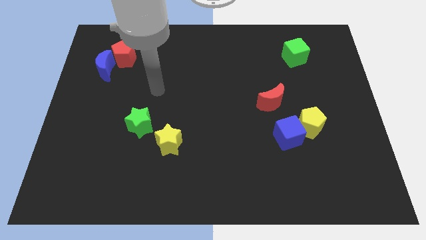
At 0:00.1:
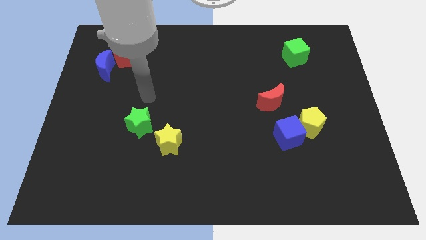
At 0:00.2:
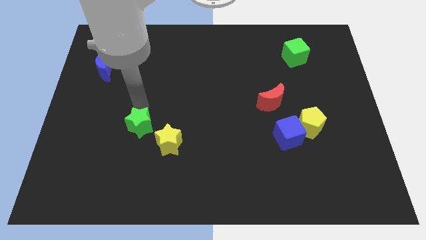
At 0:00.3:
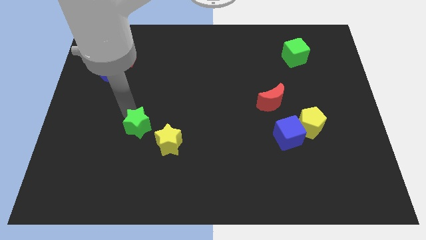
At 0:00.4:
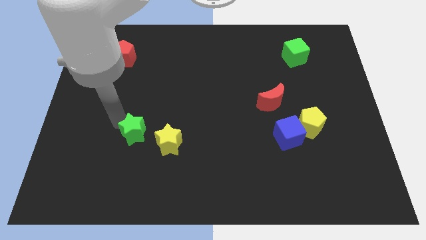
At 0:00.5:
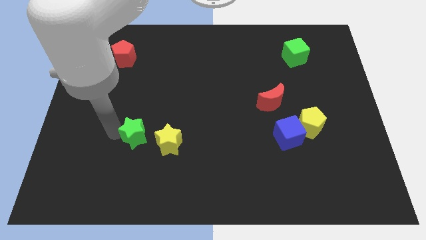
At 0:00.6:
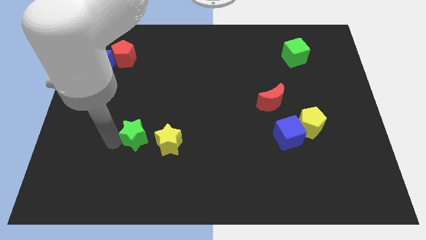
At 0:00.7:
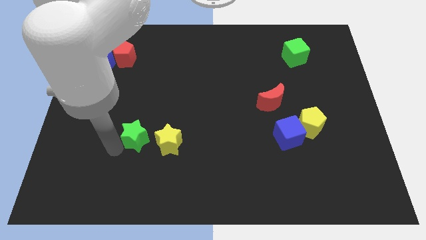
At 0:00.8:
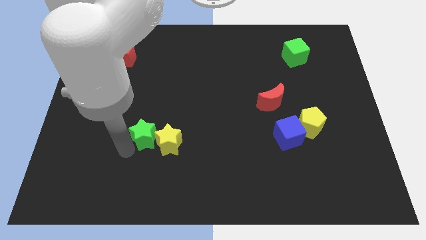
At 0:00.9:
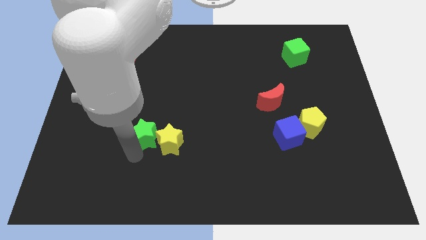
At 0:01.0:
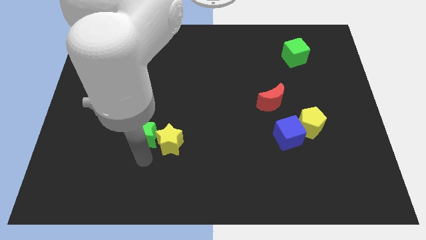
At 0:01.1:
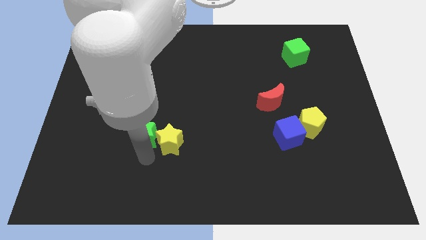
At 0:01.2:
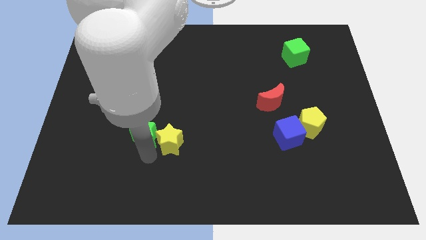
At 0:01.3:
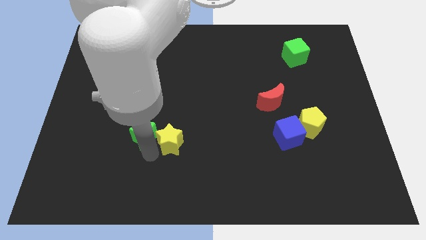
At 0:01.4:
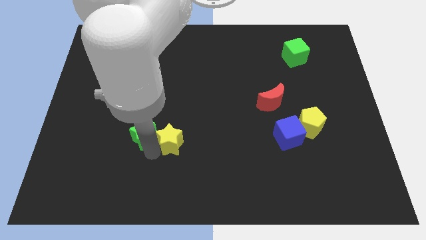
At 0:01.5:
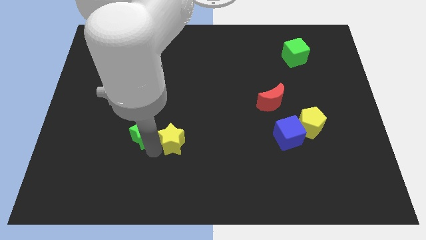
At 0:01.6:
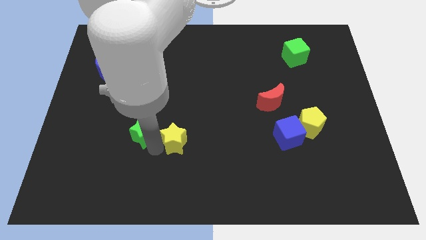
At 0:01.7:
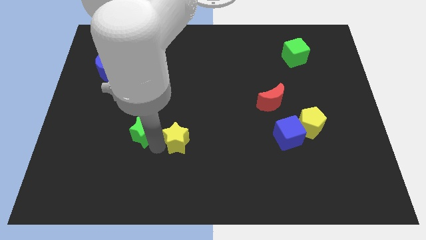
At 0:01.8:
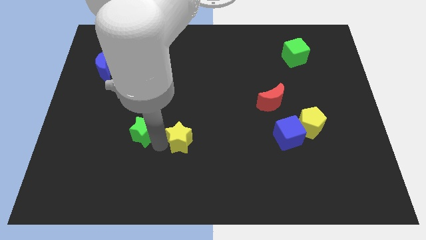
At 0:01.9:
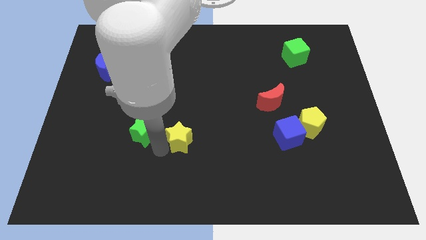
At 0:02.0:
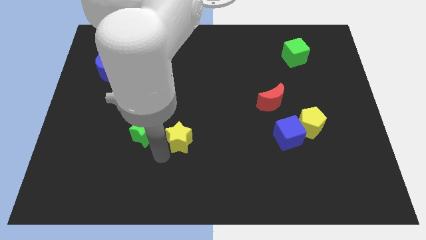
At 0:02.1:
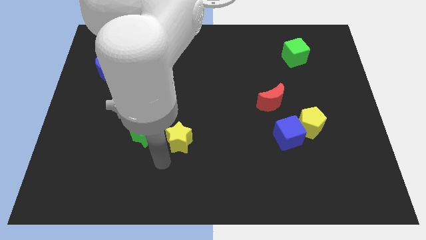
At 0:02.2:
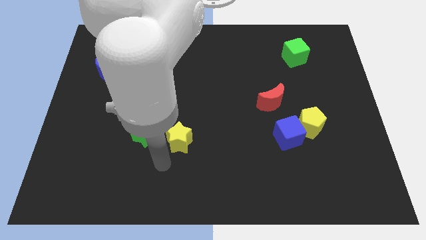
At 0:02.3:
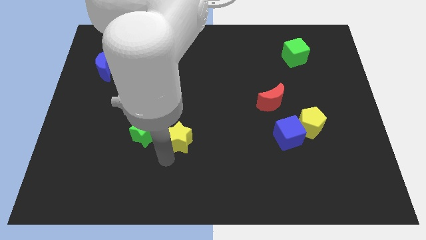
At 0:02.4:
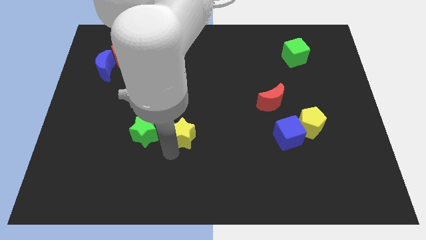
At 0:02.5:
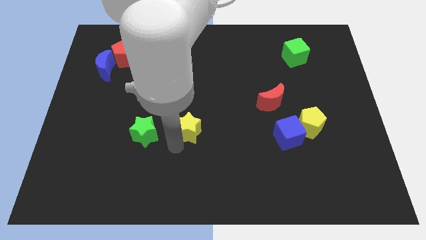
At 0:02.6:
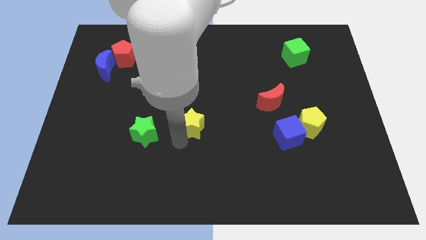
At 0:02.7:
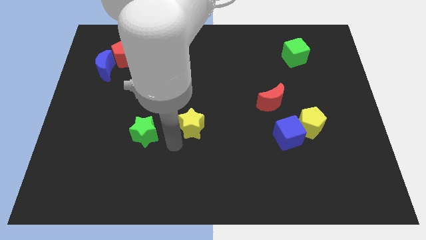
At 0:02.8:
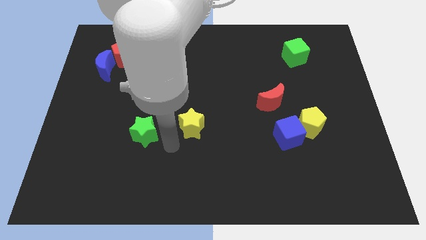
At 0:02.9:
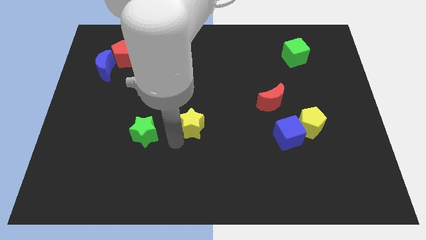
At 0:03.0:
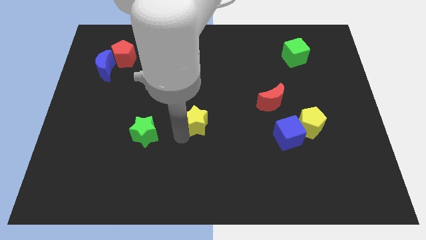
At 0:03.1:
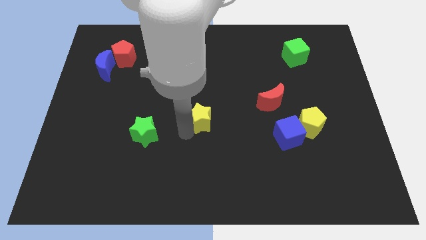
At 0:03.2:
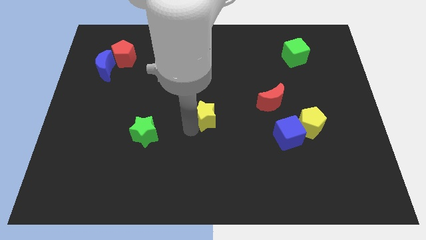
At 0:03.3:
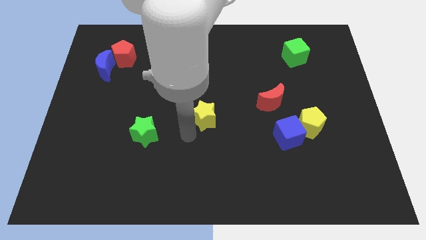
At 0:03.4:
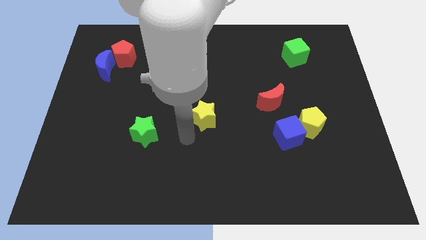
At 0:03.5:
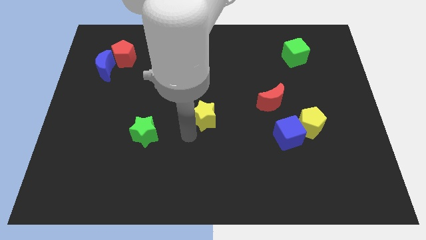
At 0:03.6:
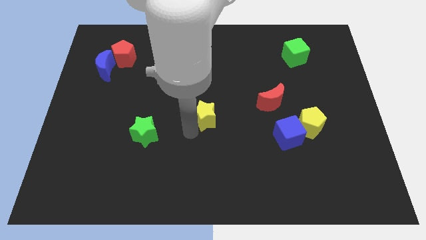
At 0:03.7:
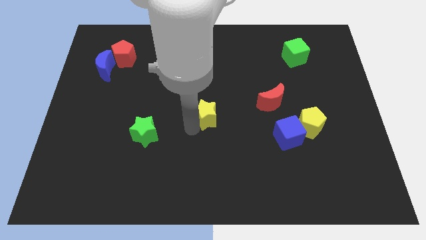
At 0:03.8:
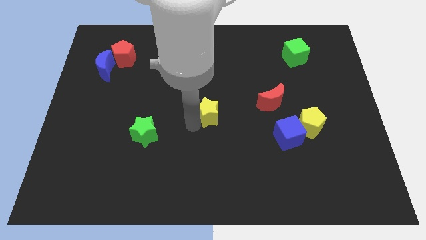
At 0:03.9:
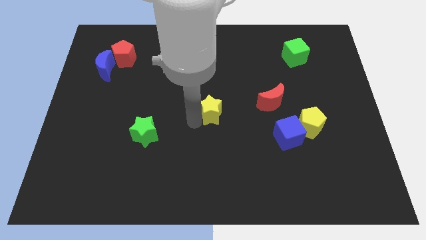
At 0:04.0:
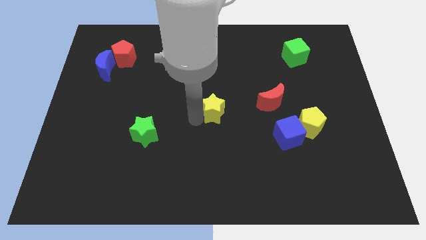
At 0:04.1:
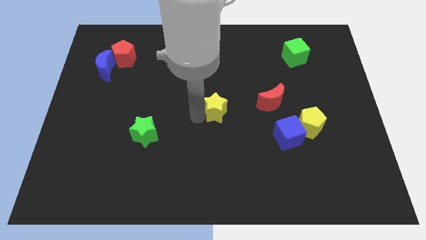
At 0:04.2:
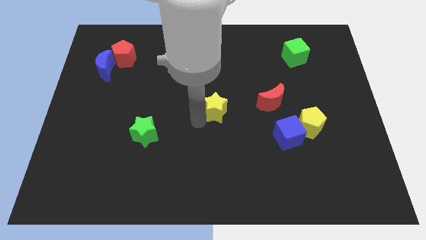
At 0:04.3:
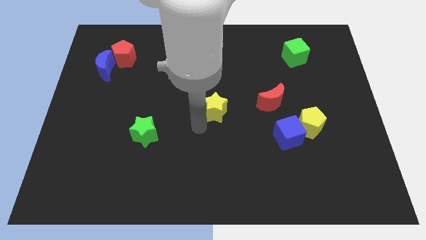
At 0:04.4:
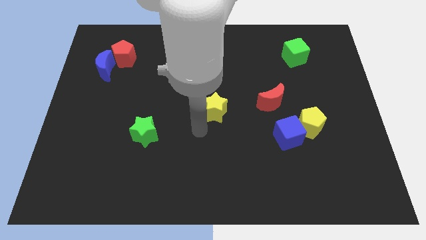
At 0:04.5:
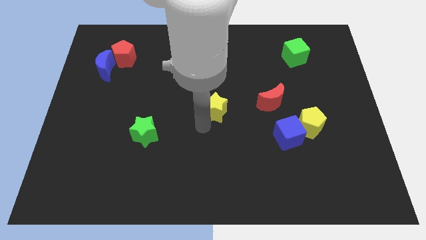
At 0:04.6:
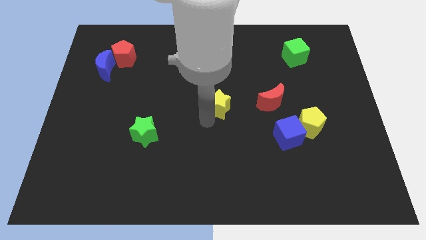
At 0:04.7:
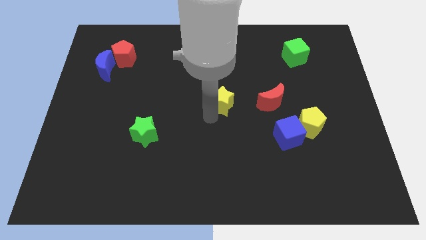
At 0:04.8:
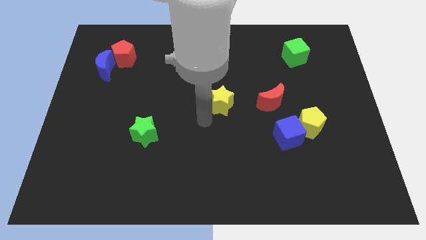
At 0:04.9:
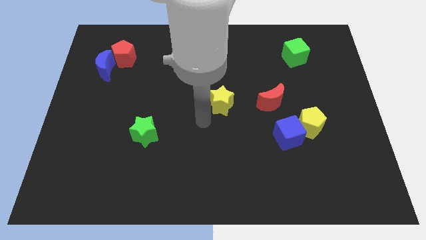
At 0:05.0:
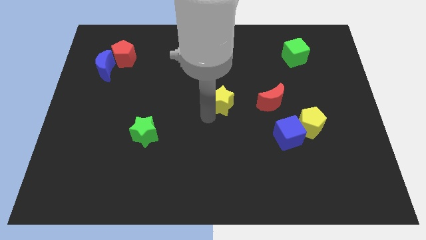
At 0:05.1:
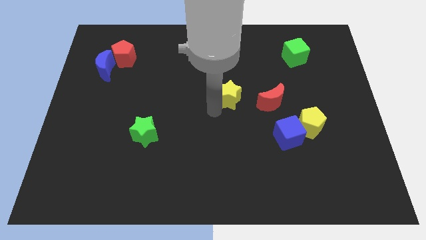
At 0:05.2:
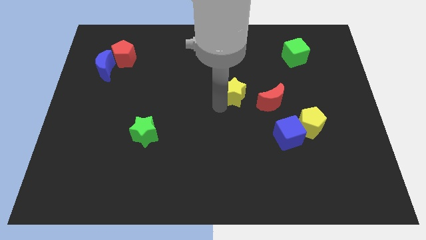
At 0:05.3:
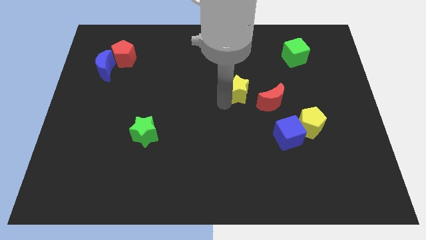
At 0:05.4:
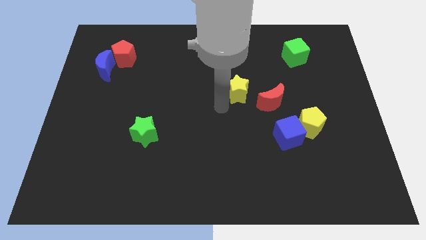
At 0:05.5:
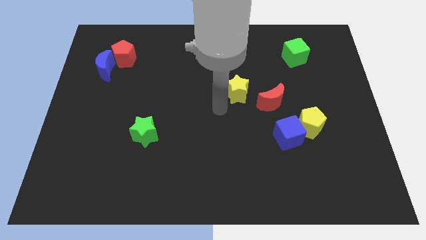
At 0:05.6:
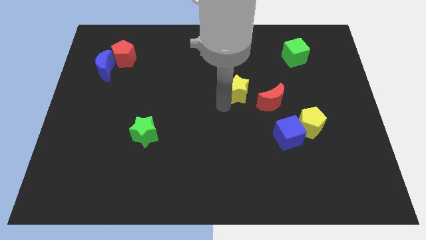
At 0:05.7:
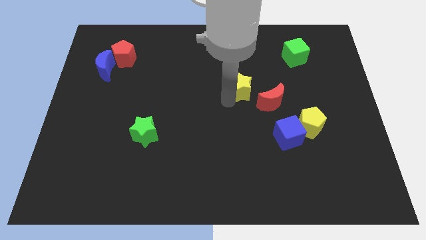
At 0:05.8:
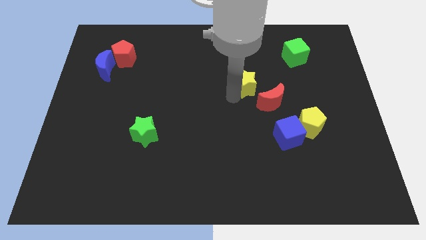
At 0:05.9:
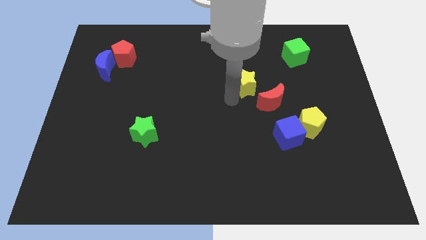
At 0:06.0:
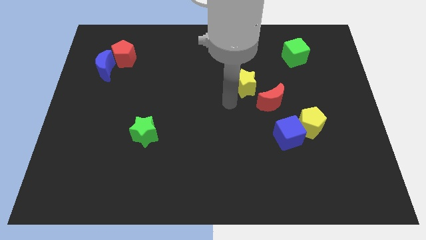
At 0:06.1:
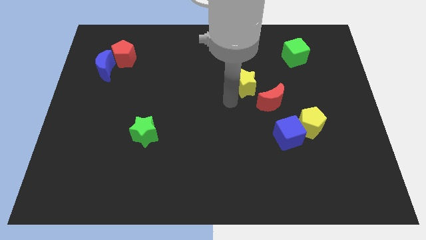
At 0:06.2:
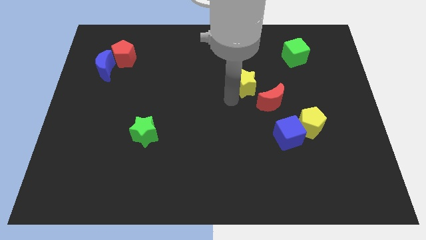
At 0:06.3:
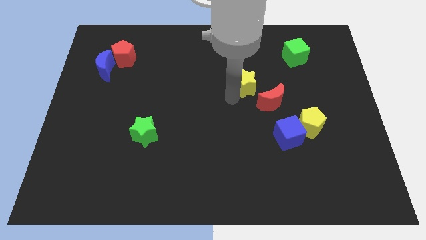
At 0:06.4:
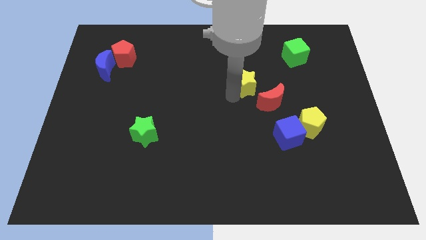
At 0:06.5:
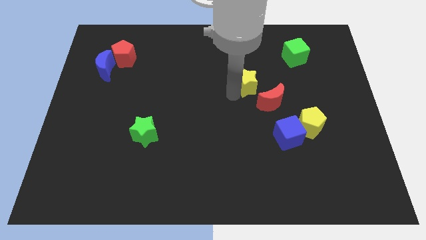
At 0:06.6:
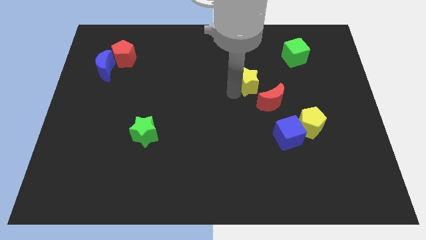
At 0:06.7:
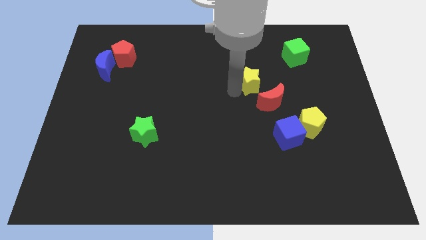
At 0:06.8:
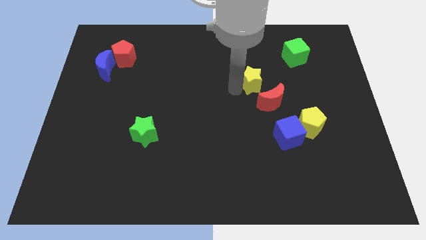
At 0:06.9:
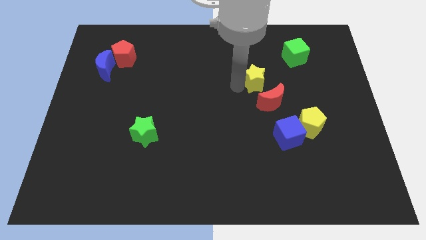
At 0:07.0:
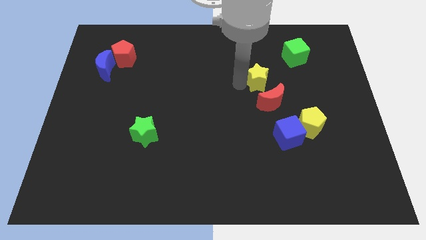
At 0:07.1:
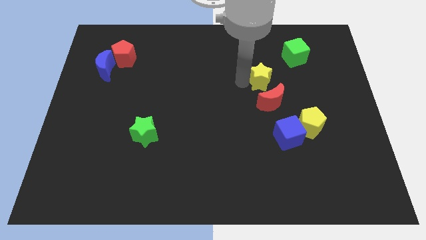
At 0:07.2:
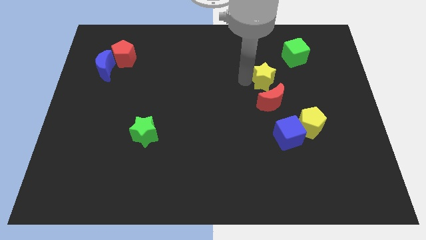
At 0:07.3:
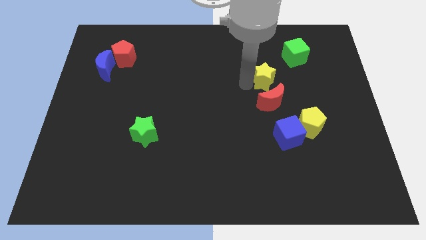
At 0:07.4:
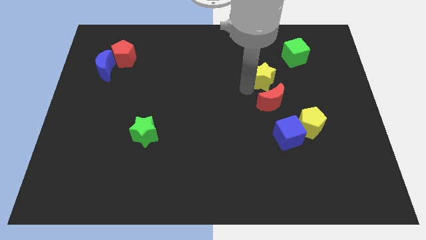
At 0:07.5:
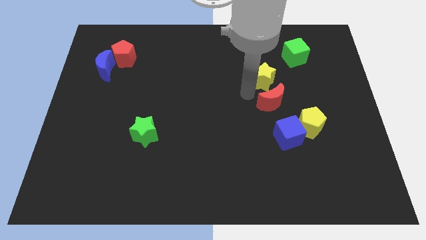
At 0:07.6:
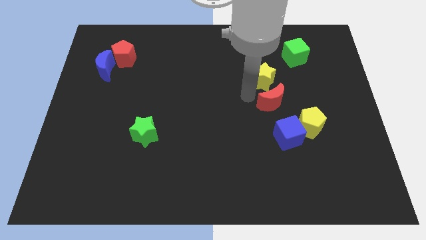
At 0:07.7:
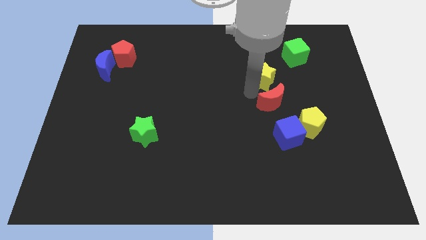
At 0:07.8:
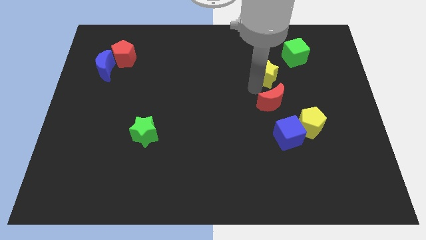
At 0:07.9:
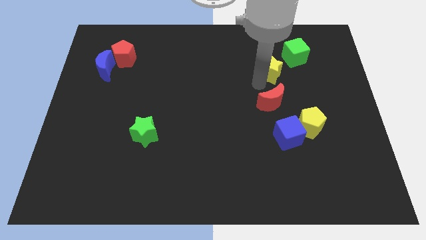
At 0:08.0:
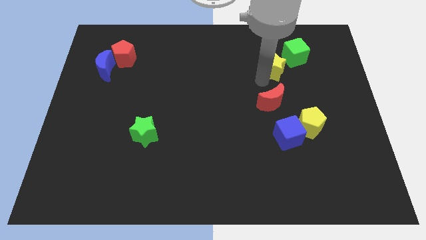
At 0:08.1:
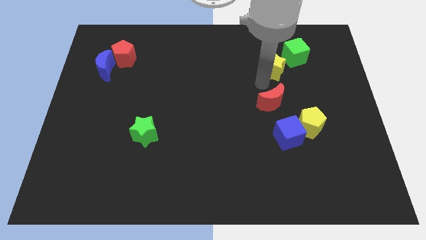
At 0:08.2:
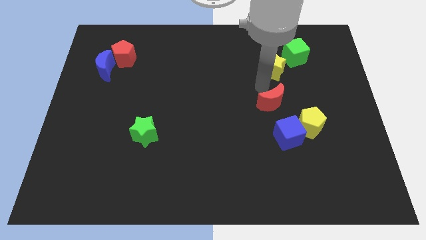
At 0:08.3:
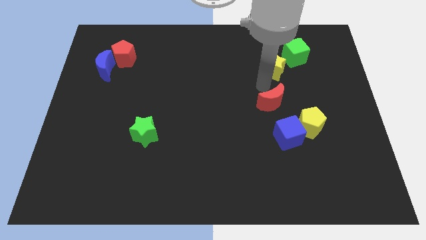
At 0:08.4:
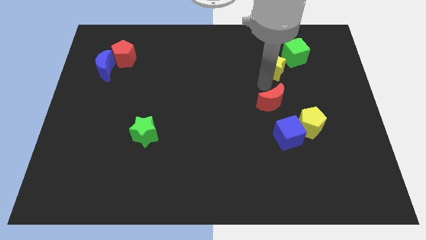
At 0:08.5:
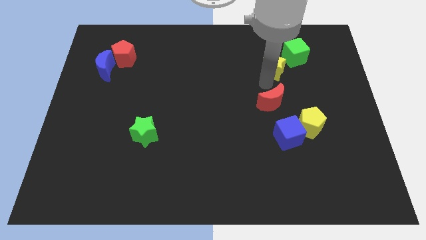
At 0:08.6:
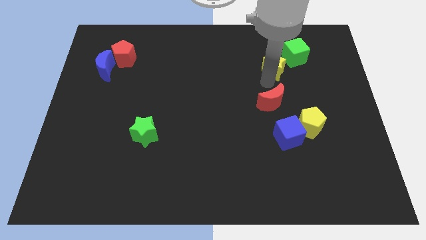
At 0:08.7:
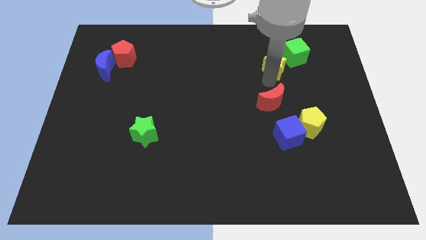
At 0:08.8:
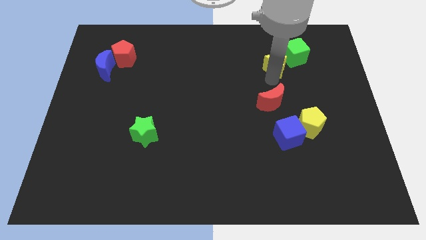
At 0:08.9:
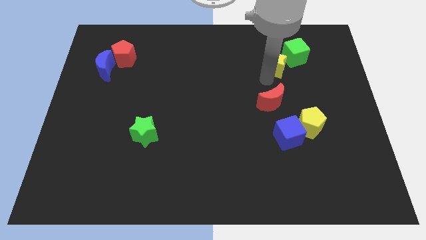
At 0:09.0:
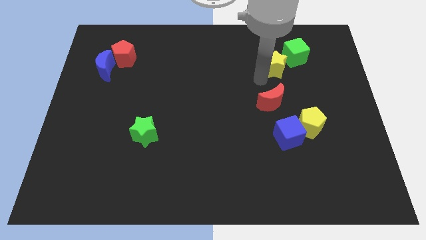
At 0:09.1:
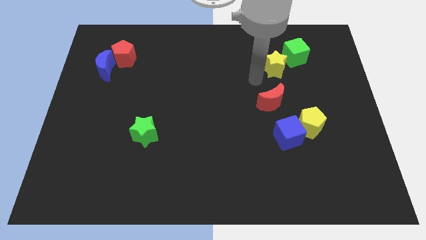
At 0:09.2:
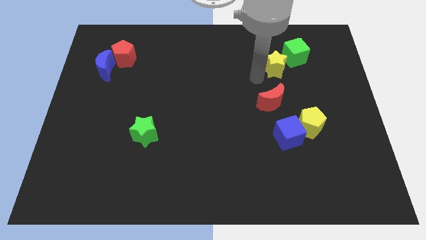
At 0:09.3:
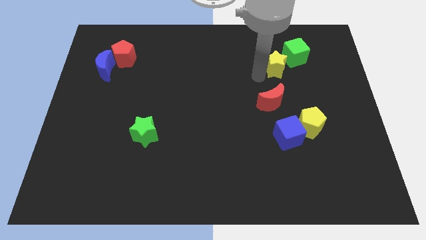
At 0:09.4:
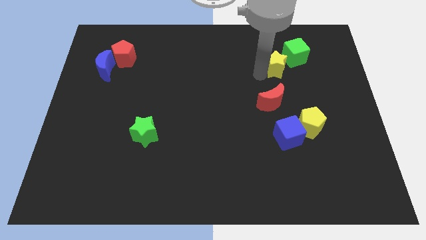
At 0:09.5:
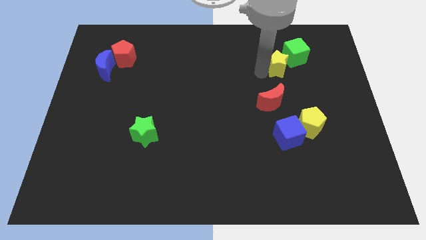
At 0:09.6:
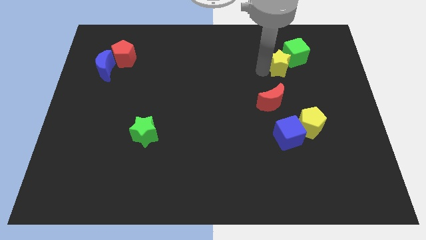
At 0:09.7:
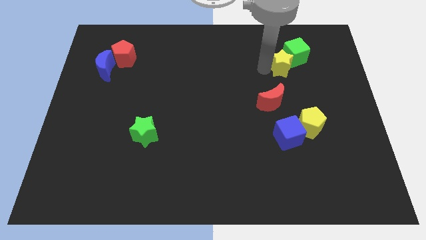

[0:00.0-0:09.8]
move the yellow star to the green cube
